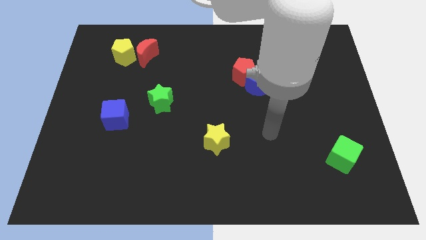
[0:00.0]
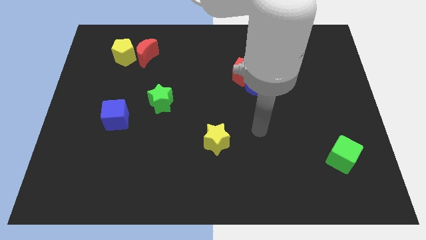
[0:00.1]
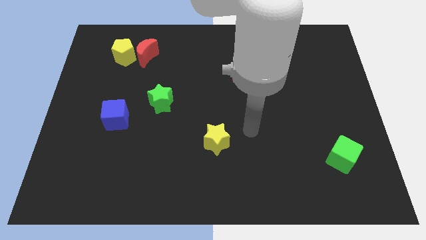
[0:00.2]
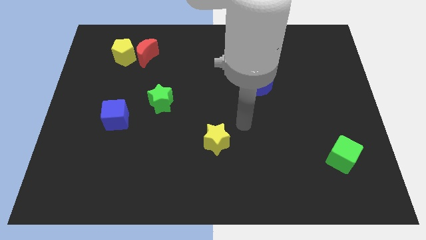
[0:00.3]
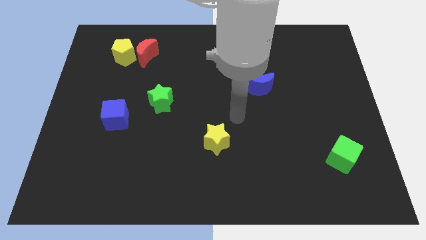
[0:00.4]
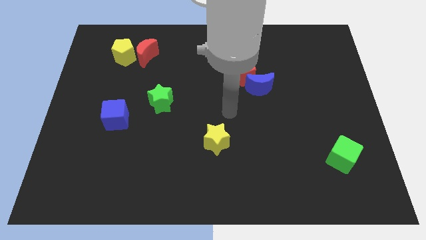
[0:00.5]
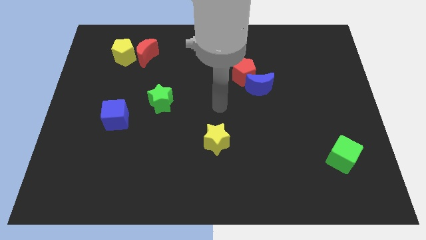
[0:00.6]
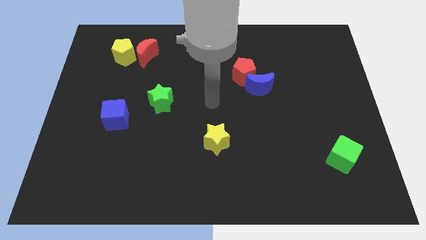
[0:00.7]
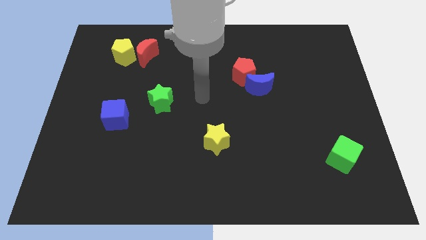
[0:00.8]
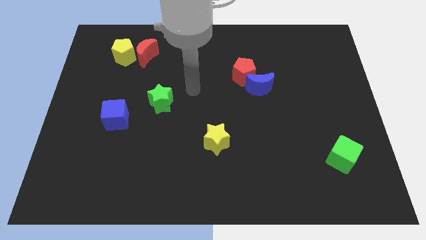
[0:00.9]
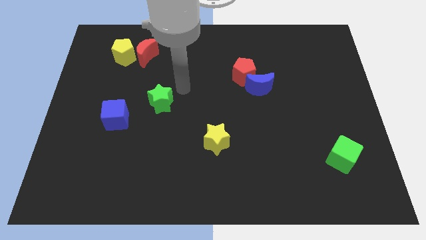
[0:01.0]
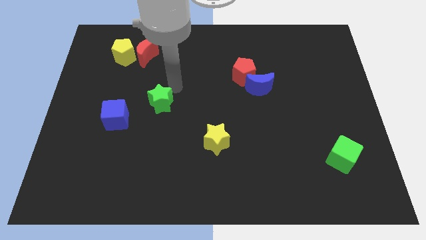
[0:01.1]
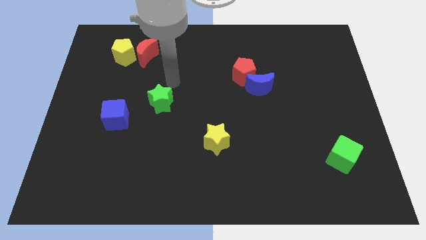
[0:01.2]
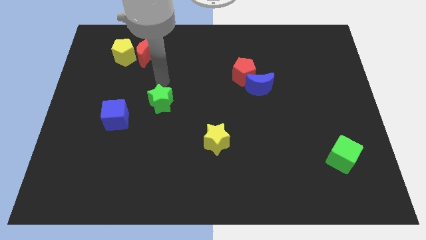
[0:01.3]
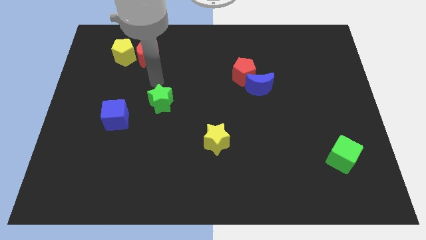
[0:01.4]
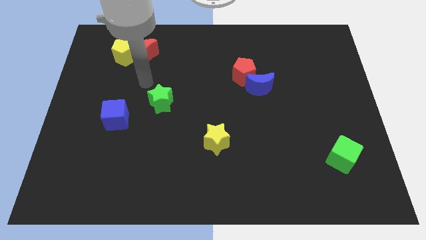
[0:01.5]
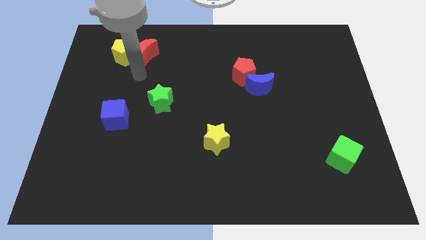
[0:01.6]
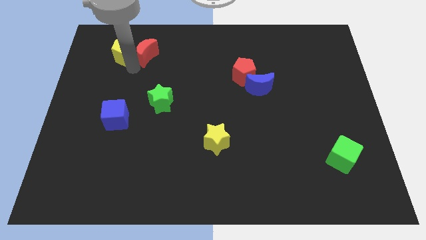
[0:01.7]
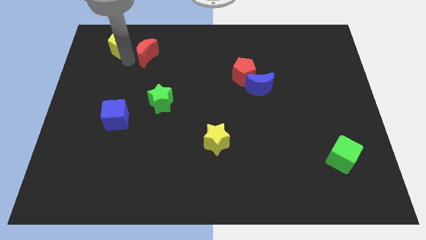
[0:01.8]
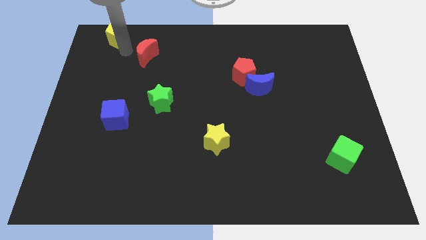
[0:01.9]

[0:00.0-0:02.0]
pull the red moon apart from the yellow pentagon

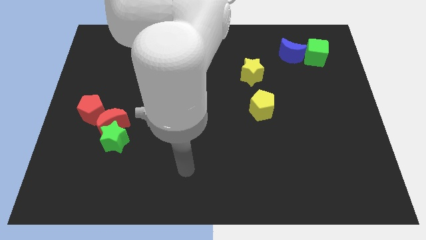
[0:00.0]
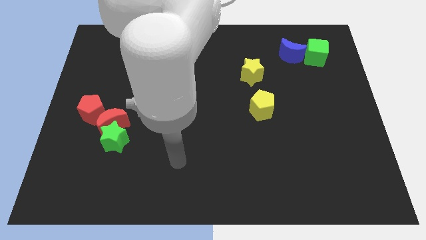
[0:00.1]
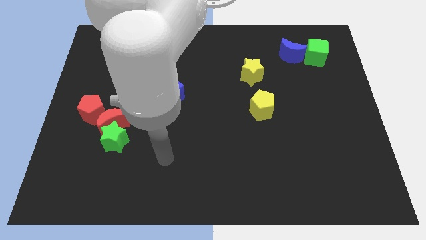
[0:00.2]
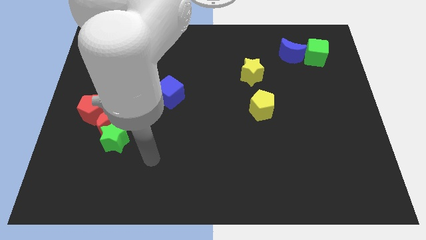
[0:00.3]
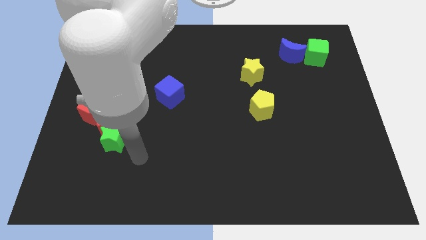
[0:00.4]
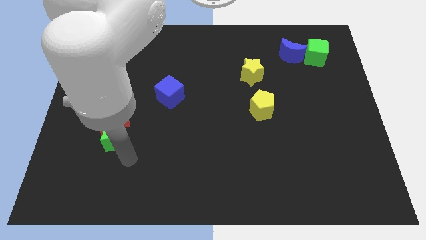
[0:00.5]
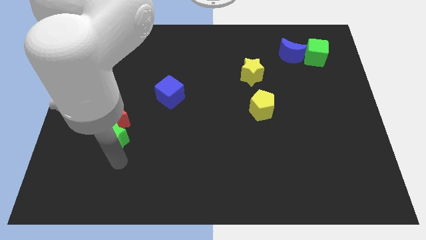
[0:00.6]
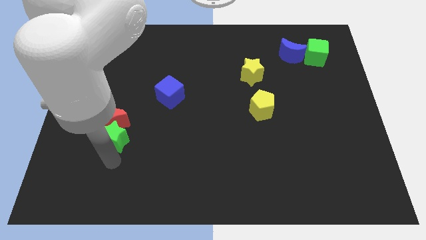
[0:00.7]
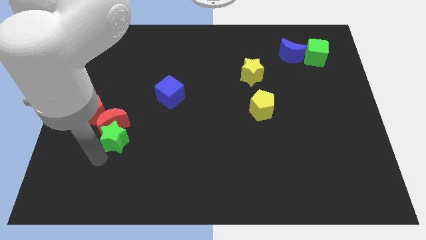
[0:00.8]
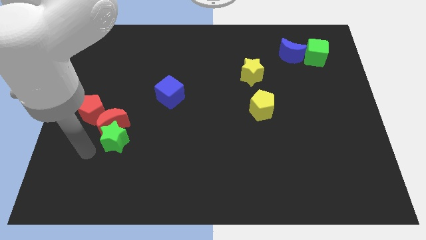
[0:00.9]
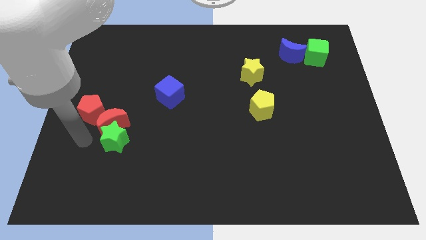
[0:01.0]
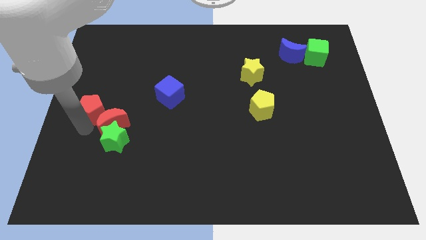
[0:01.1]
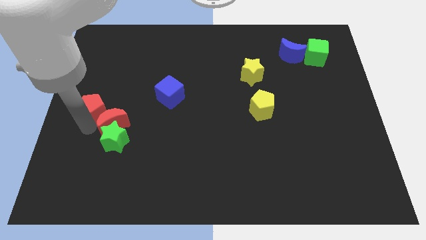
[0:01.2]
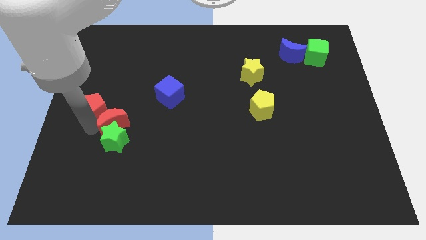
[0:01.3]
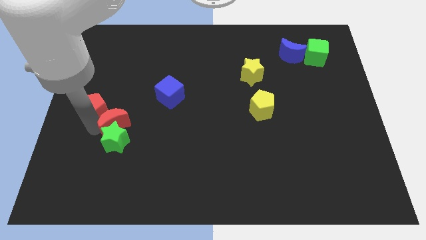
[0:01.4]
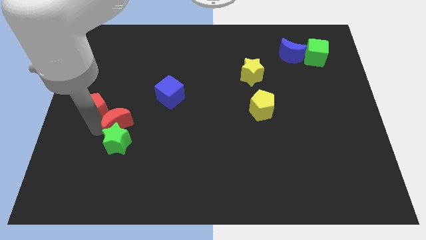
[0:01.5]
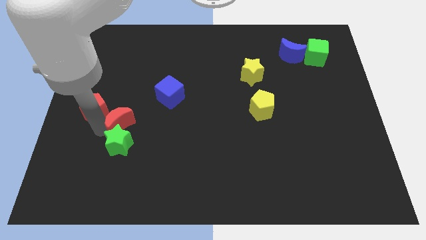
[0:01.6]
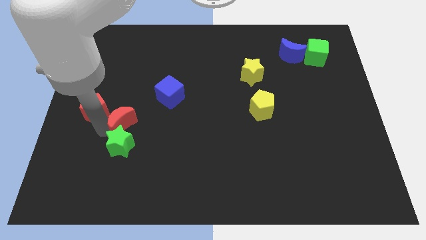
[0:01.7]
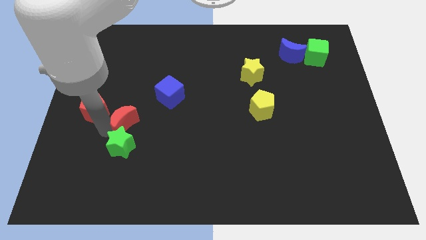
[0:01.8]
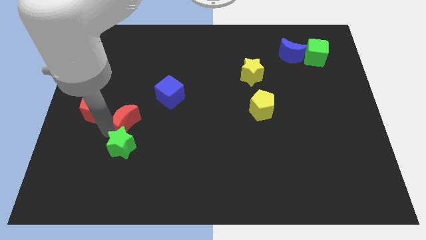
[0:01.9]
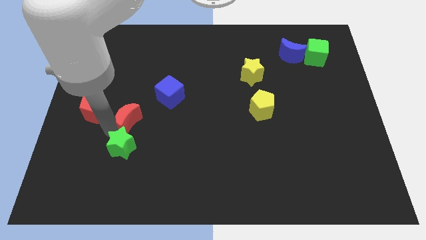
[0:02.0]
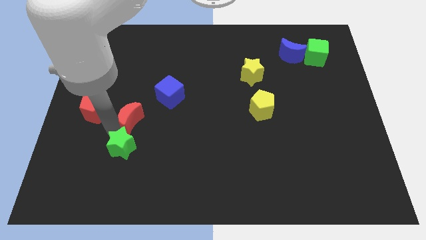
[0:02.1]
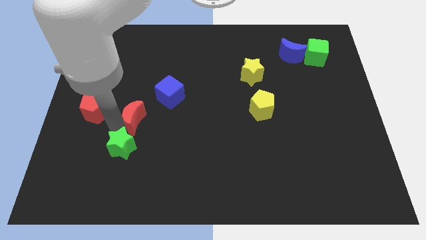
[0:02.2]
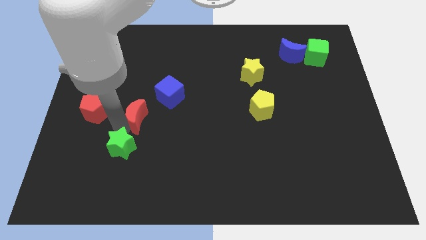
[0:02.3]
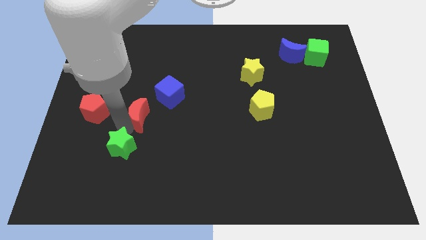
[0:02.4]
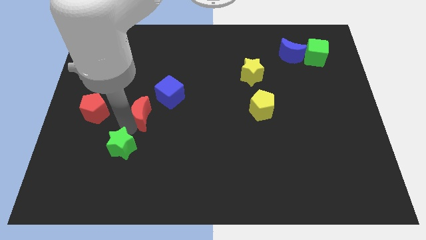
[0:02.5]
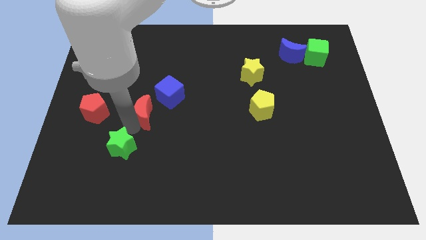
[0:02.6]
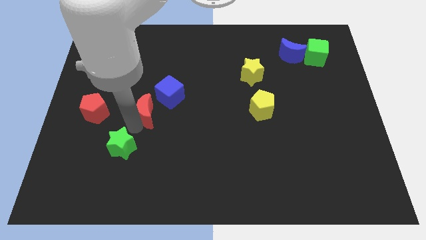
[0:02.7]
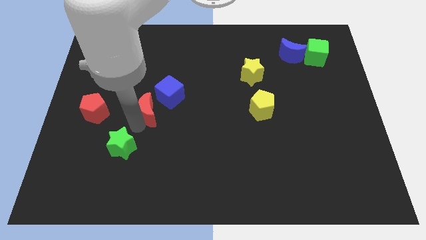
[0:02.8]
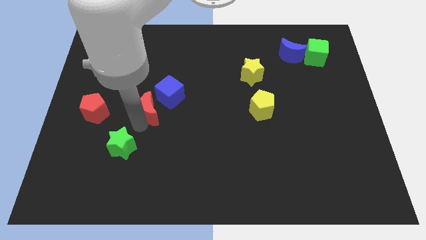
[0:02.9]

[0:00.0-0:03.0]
move the red moon away from the green star and red pentagon

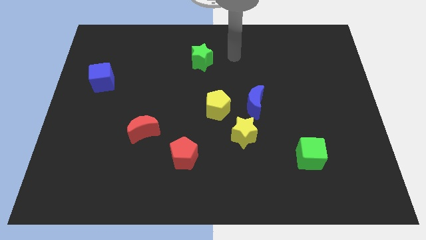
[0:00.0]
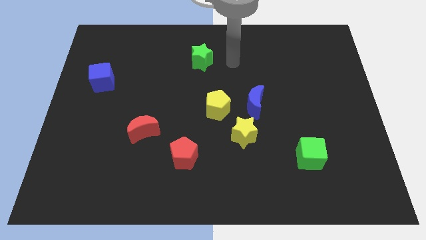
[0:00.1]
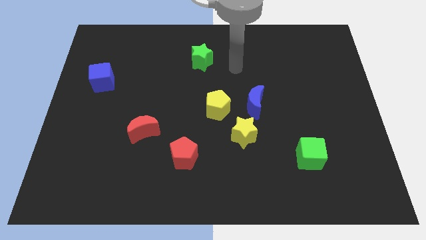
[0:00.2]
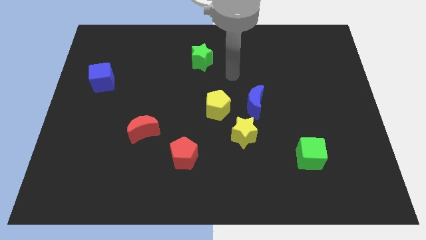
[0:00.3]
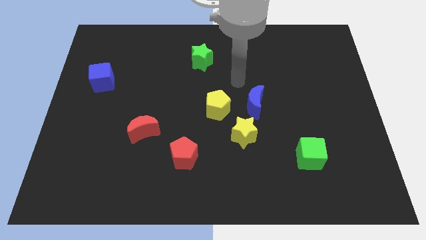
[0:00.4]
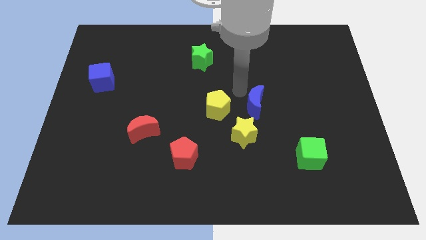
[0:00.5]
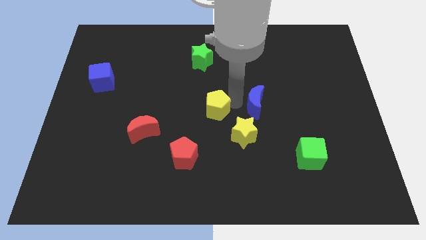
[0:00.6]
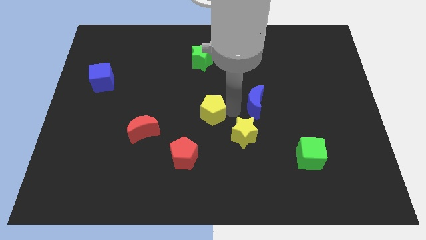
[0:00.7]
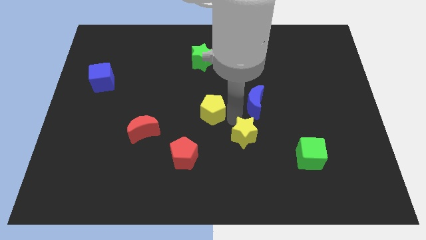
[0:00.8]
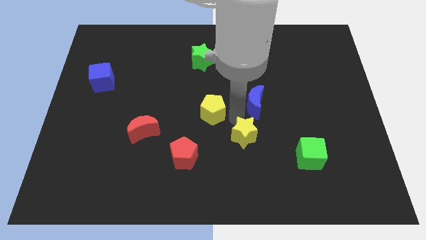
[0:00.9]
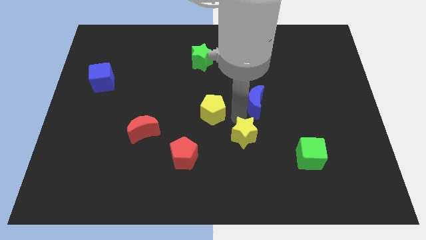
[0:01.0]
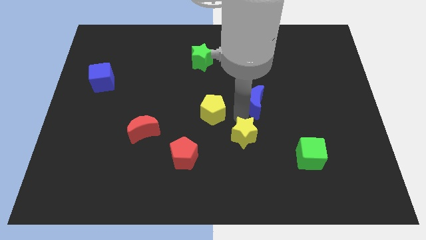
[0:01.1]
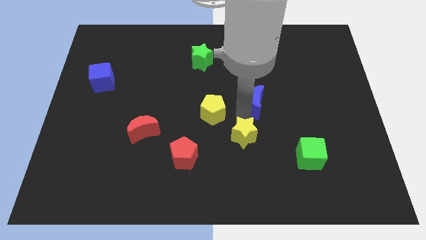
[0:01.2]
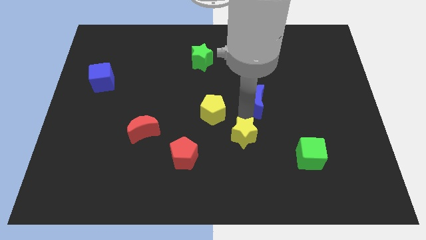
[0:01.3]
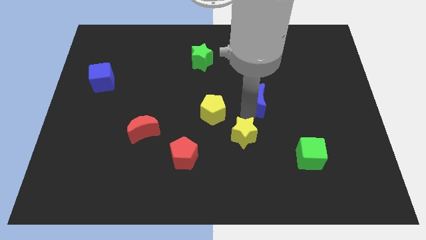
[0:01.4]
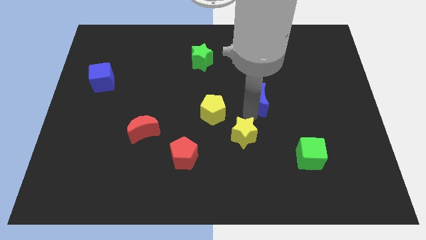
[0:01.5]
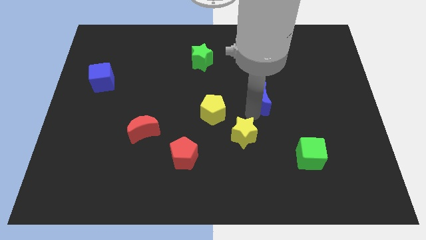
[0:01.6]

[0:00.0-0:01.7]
move the blue moon away from the yellow pentagon and yellow star

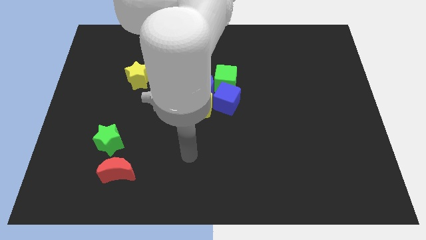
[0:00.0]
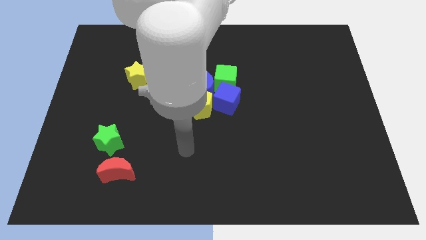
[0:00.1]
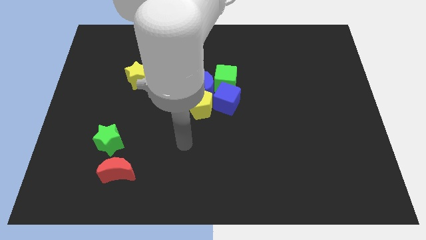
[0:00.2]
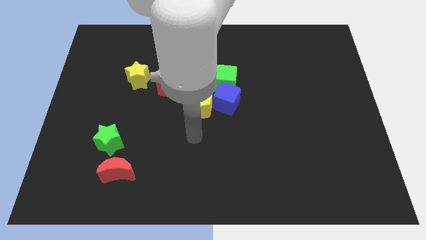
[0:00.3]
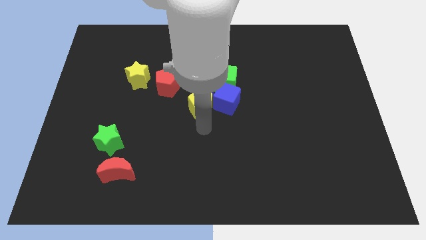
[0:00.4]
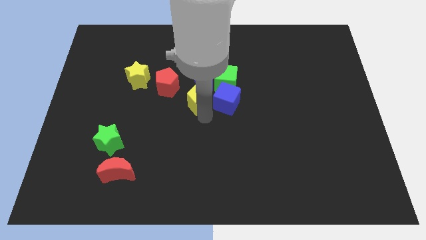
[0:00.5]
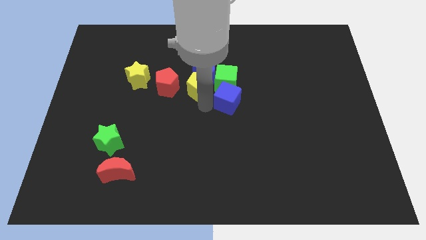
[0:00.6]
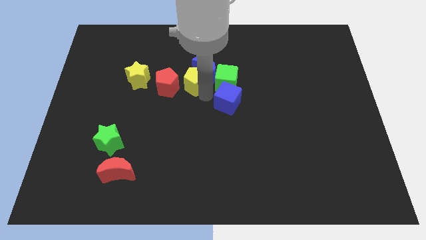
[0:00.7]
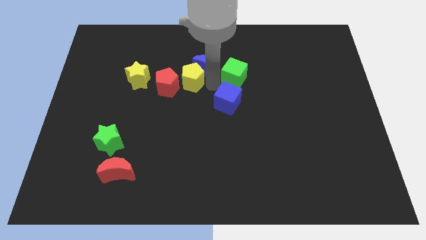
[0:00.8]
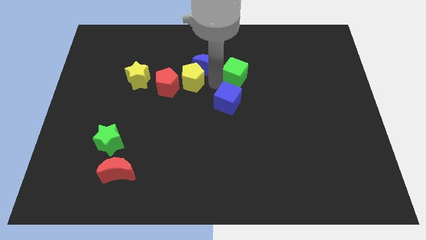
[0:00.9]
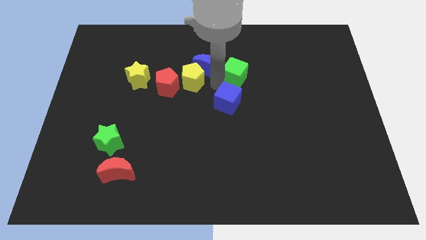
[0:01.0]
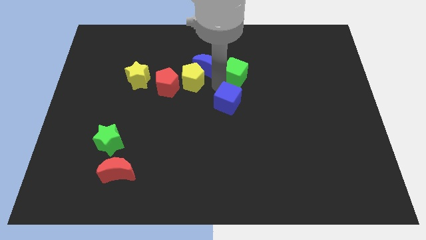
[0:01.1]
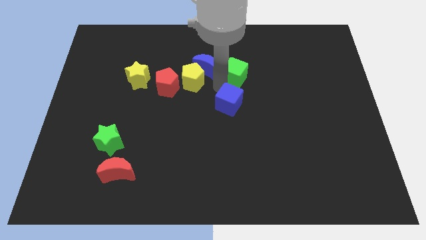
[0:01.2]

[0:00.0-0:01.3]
move the blue cube away from the green cube, yellow pentagon, and blue moon

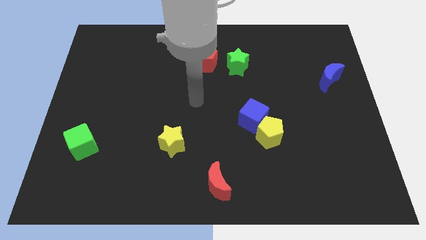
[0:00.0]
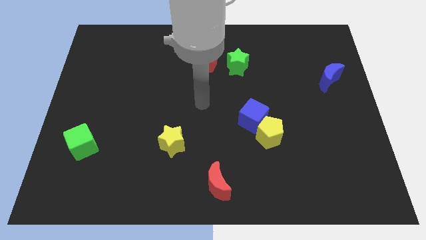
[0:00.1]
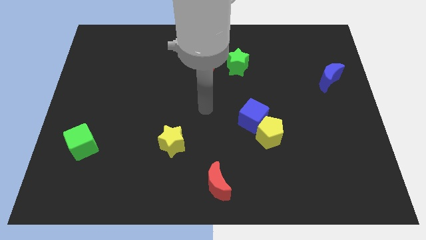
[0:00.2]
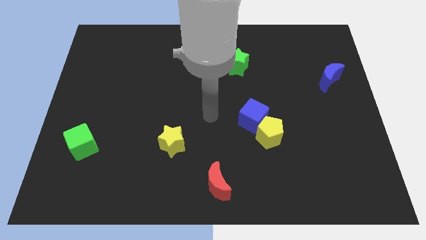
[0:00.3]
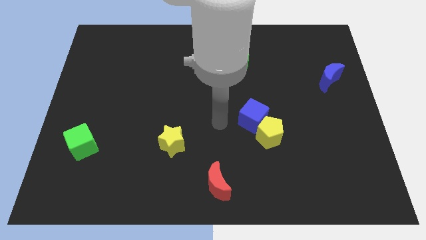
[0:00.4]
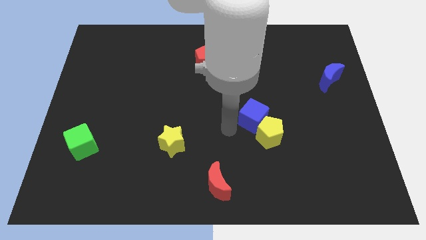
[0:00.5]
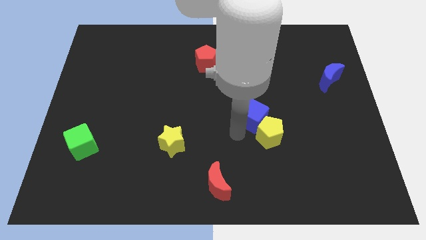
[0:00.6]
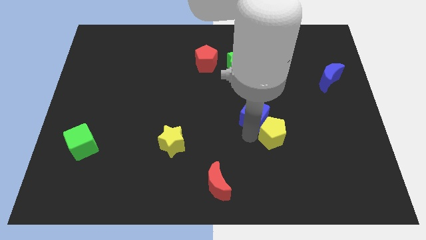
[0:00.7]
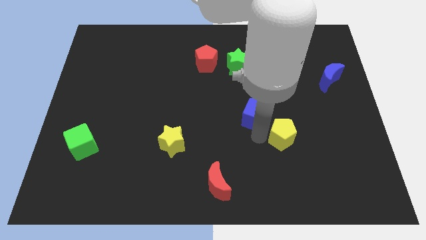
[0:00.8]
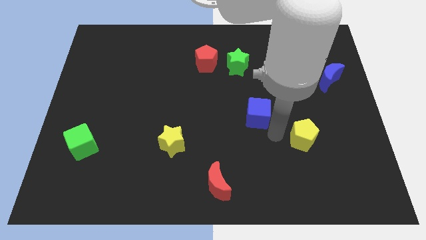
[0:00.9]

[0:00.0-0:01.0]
separate the blue cube from the yellow pentagon

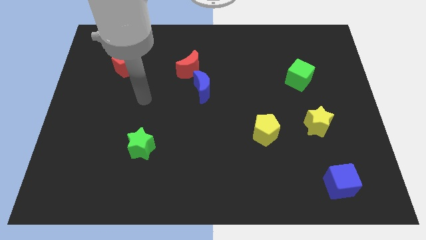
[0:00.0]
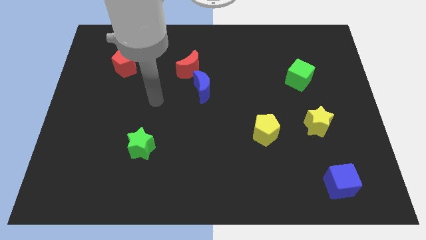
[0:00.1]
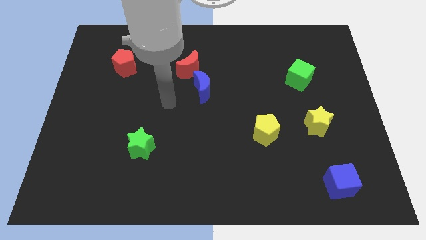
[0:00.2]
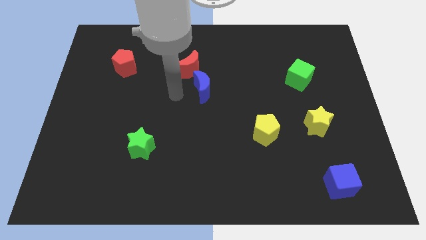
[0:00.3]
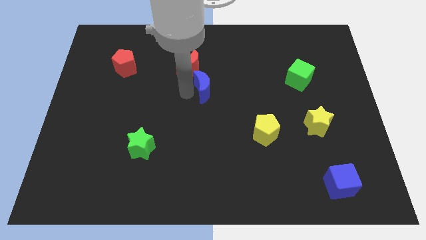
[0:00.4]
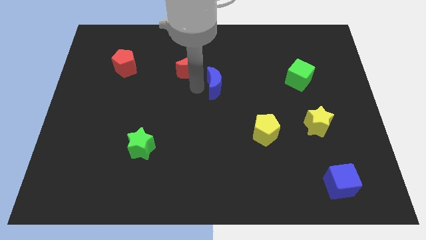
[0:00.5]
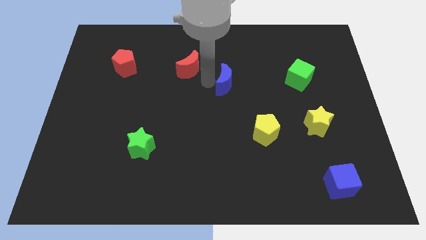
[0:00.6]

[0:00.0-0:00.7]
pull the red moon apart from the blue moon
